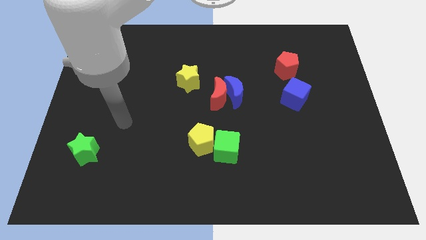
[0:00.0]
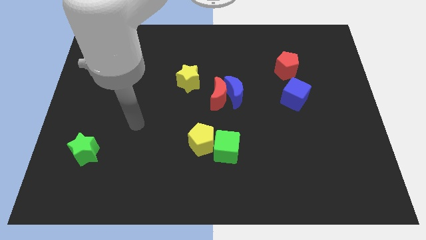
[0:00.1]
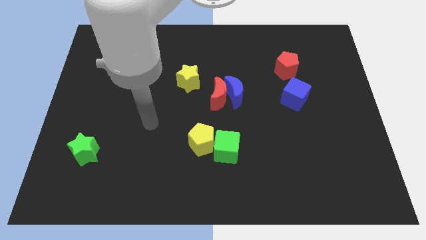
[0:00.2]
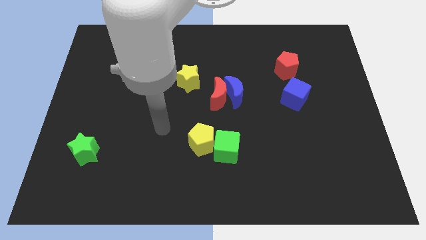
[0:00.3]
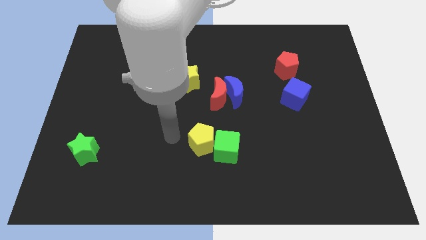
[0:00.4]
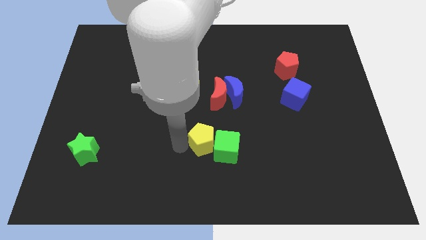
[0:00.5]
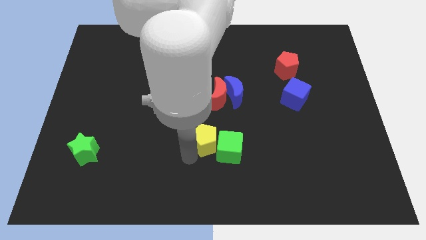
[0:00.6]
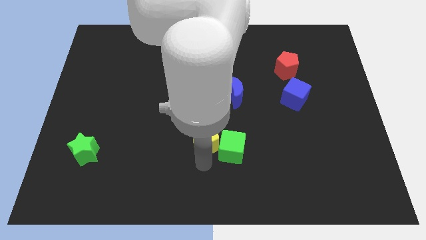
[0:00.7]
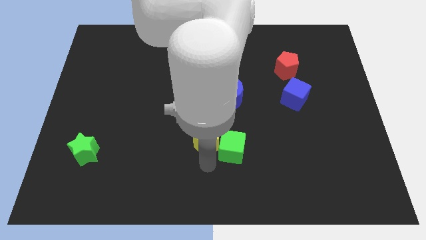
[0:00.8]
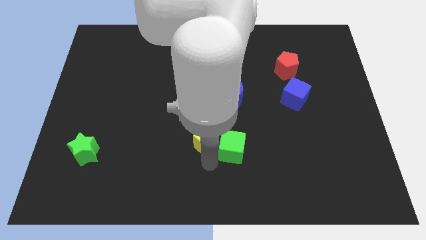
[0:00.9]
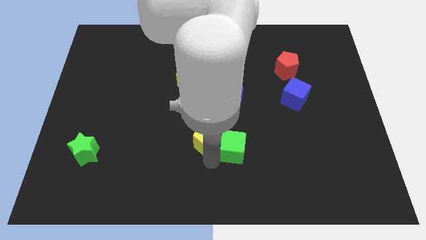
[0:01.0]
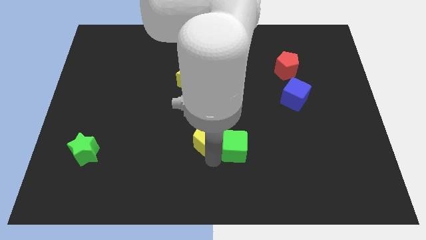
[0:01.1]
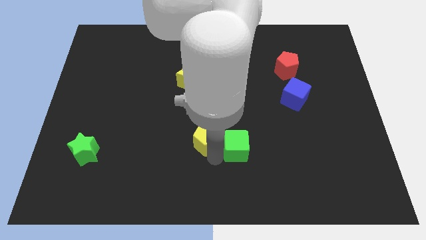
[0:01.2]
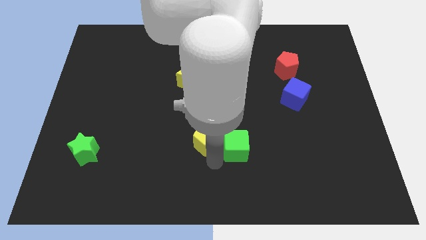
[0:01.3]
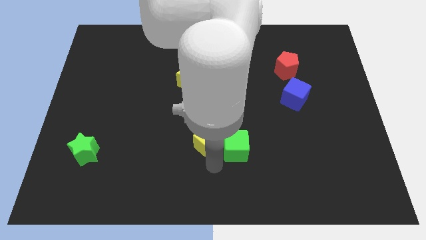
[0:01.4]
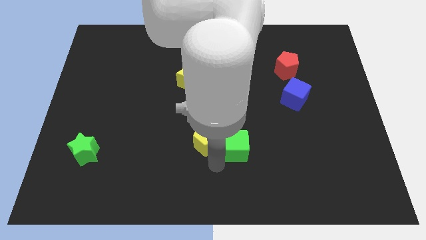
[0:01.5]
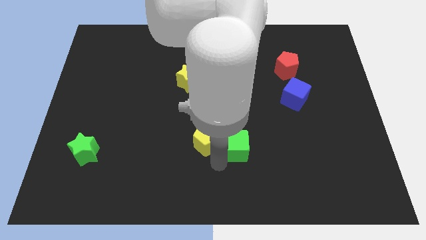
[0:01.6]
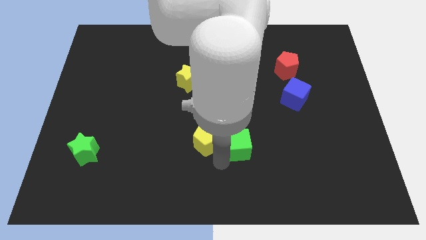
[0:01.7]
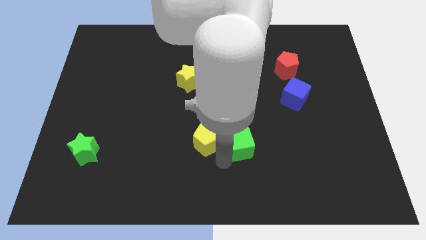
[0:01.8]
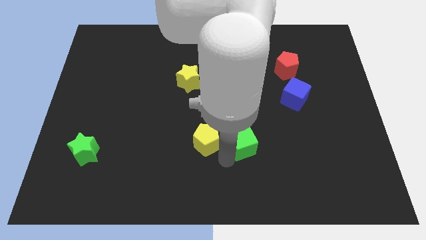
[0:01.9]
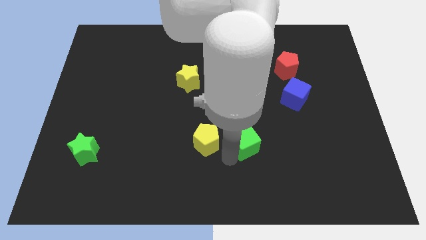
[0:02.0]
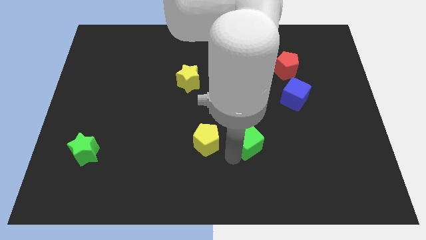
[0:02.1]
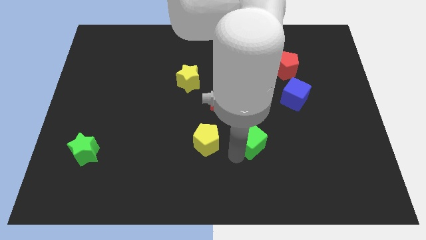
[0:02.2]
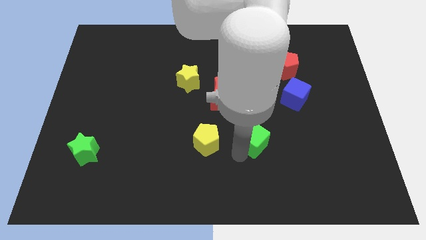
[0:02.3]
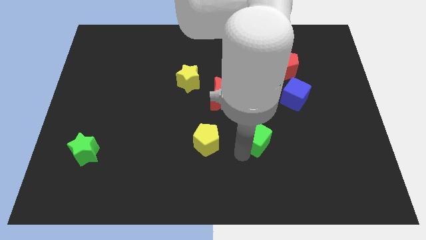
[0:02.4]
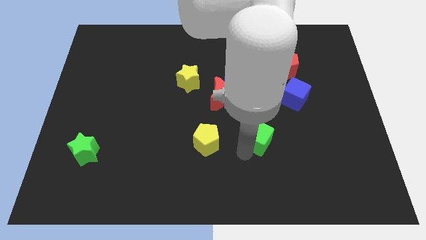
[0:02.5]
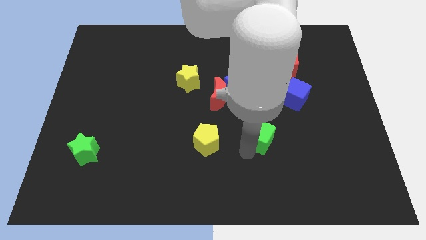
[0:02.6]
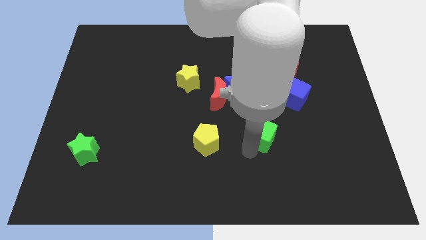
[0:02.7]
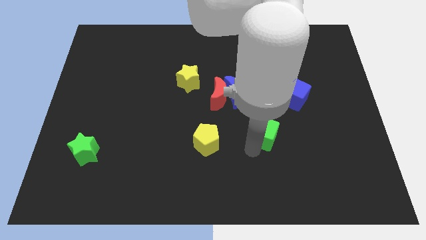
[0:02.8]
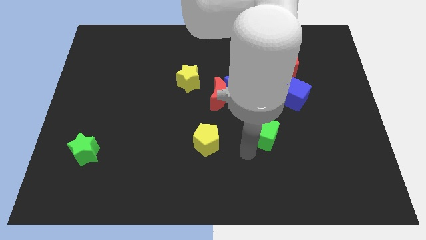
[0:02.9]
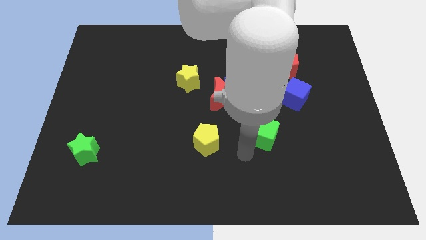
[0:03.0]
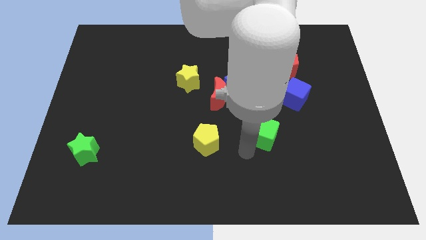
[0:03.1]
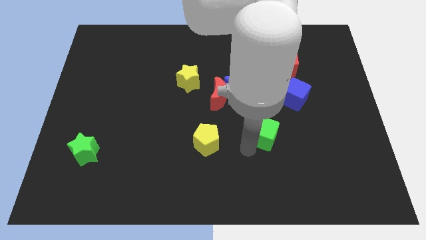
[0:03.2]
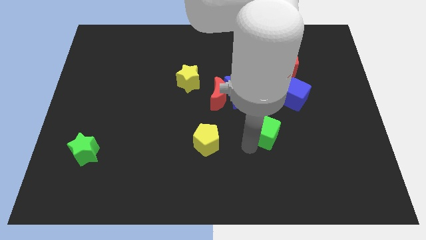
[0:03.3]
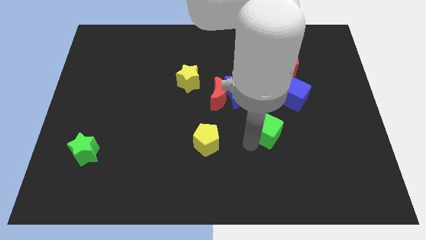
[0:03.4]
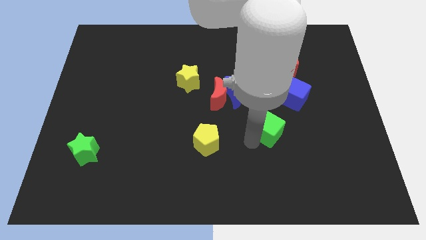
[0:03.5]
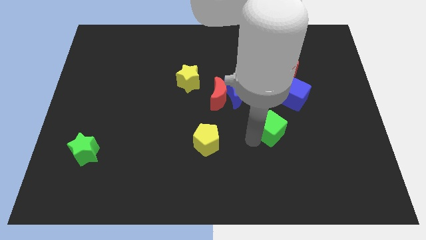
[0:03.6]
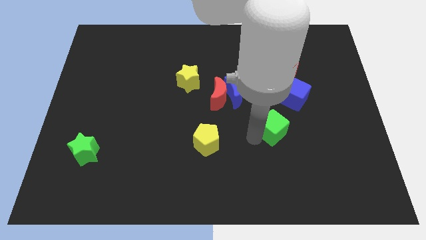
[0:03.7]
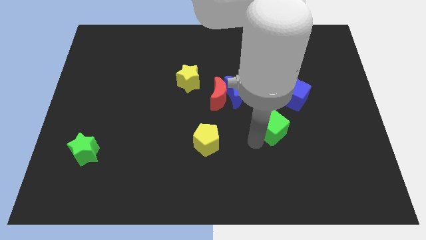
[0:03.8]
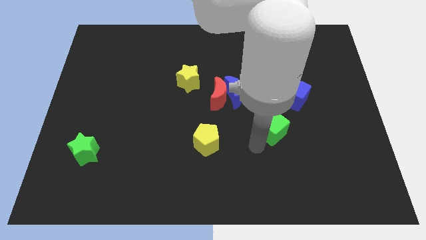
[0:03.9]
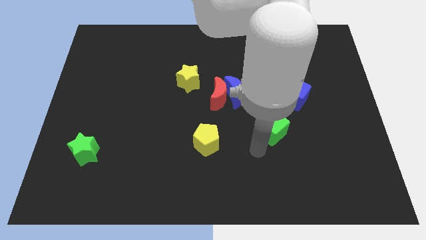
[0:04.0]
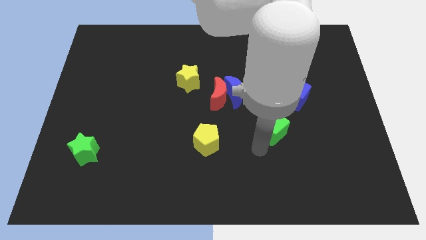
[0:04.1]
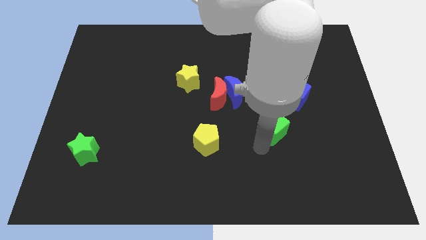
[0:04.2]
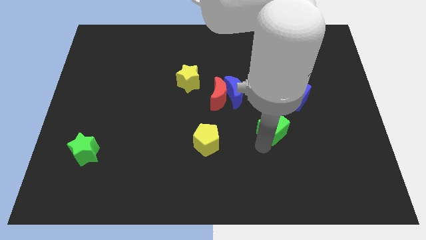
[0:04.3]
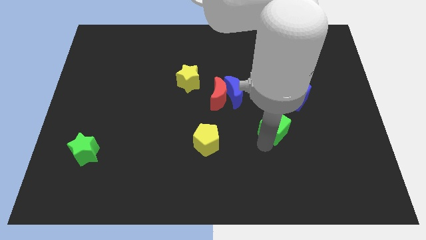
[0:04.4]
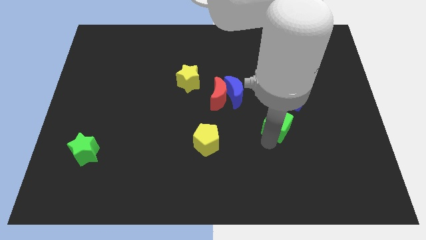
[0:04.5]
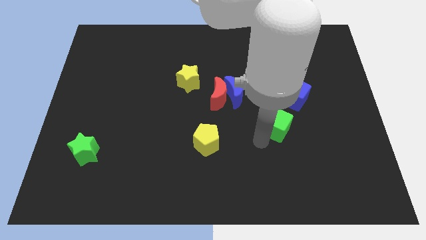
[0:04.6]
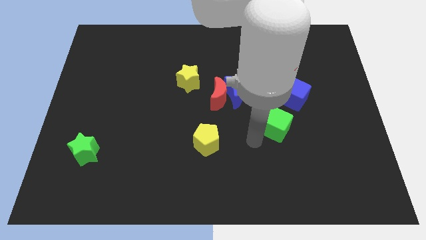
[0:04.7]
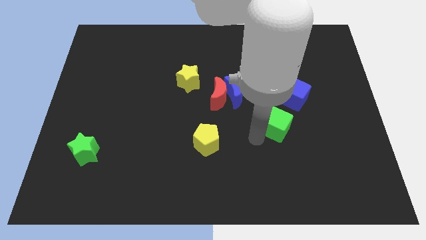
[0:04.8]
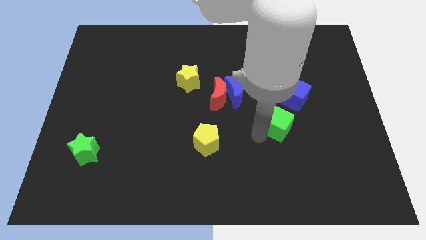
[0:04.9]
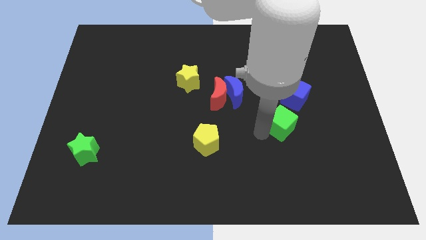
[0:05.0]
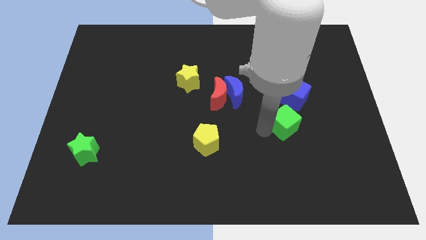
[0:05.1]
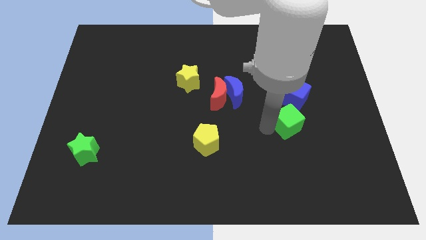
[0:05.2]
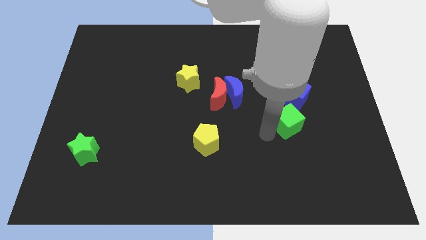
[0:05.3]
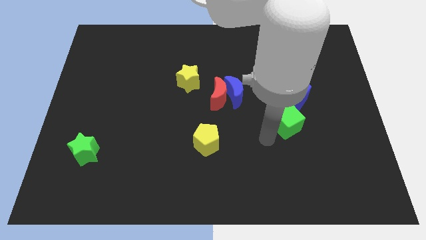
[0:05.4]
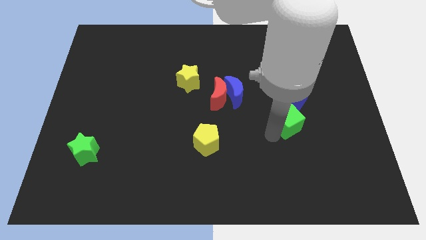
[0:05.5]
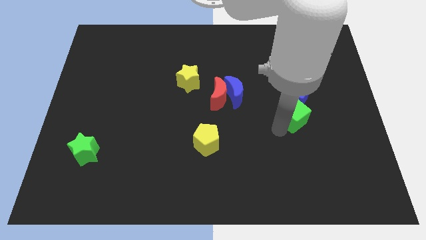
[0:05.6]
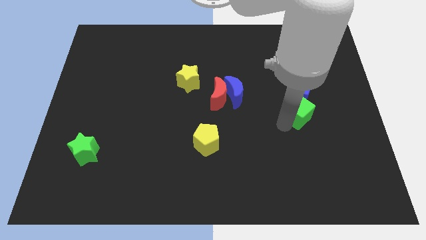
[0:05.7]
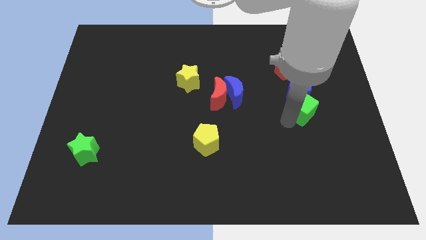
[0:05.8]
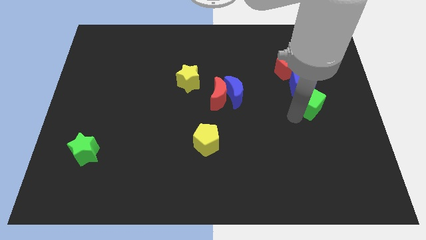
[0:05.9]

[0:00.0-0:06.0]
push the green cube up and to the right

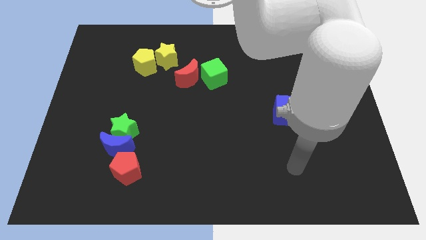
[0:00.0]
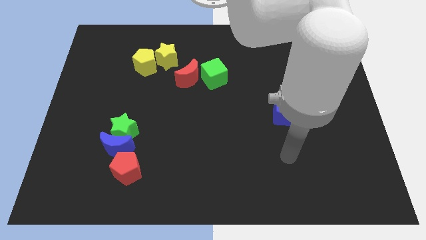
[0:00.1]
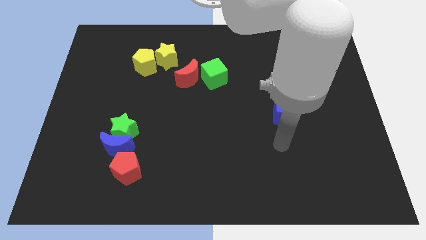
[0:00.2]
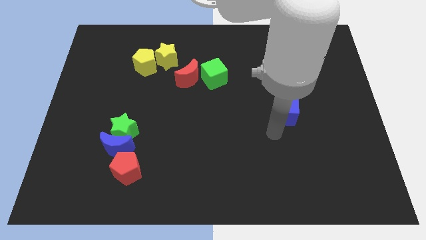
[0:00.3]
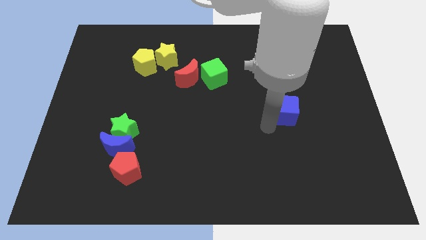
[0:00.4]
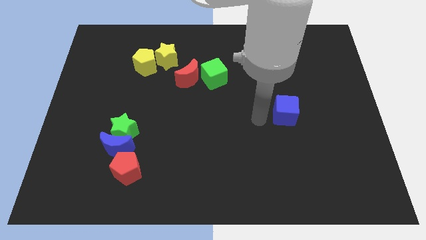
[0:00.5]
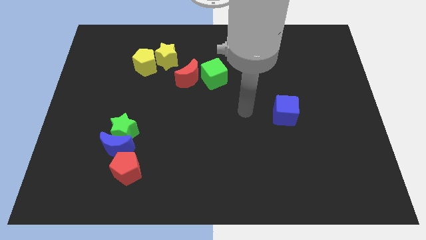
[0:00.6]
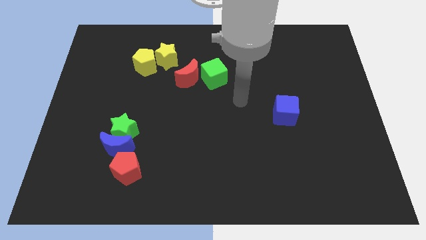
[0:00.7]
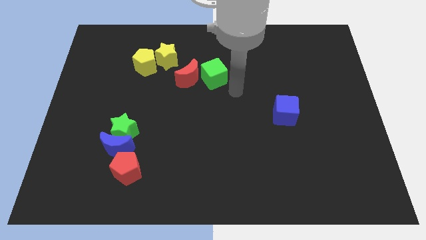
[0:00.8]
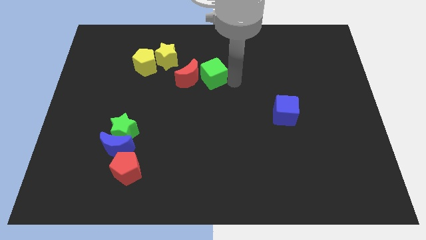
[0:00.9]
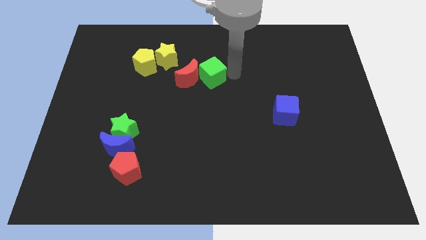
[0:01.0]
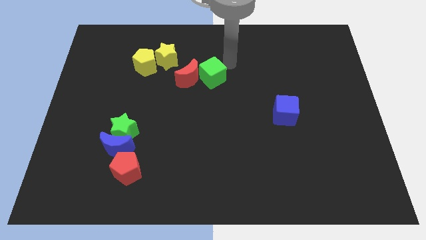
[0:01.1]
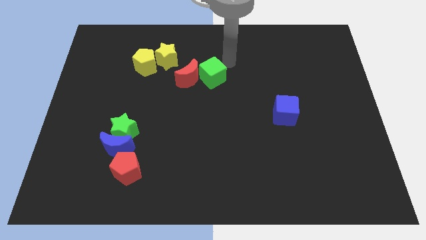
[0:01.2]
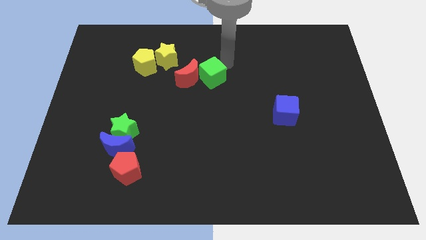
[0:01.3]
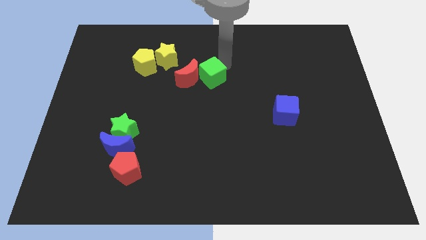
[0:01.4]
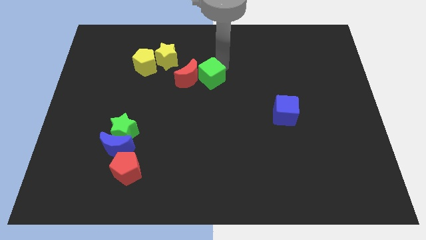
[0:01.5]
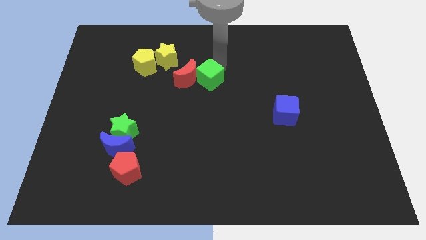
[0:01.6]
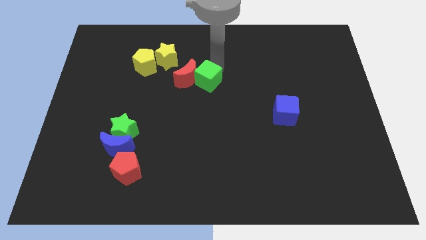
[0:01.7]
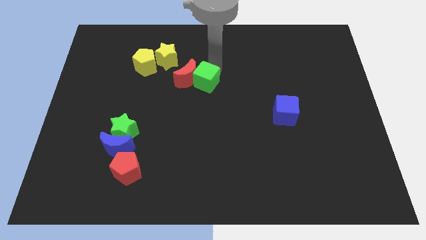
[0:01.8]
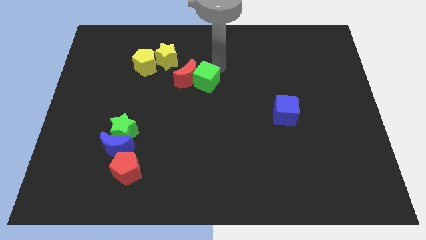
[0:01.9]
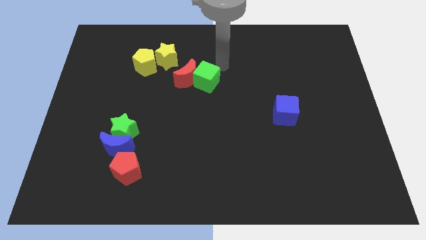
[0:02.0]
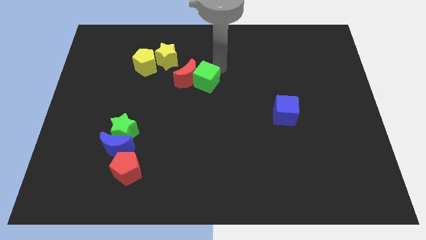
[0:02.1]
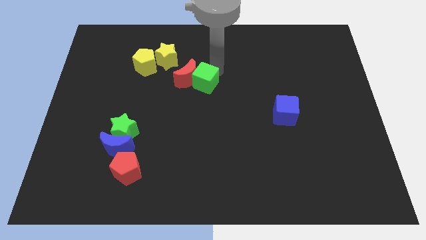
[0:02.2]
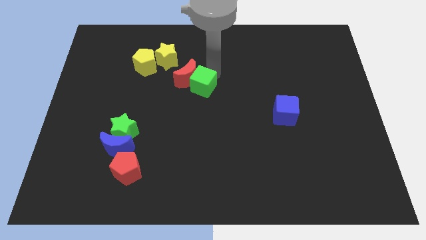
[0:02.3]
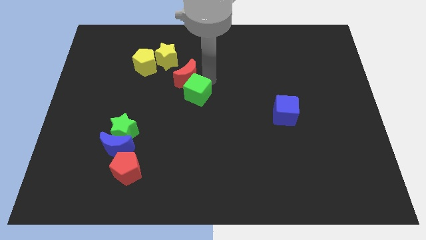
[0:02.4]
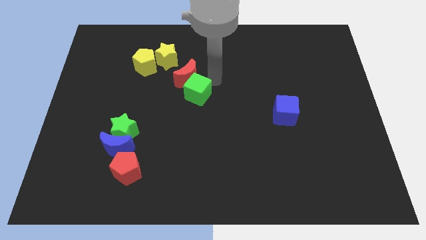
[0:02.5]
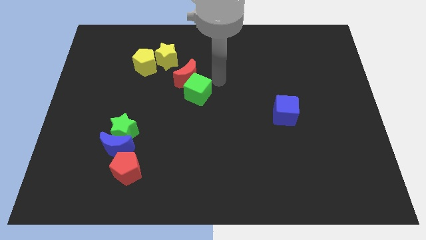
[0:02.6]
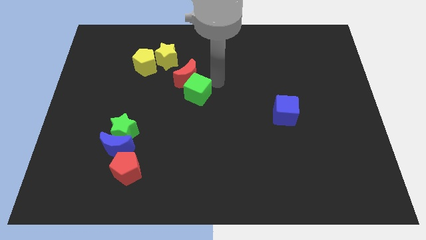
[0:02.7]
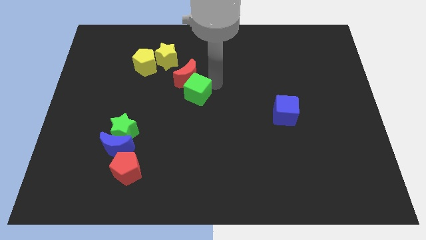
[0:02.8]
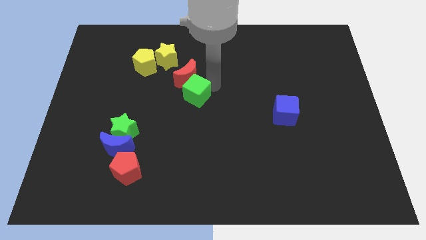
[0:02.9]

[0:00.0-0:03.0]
slide the green cube diagonally downwards and left slightly
